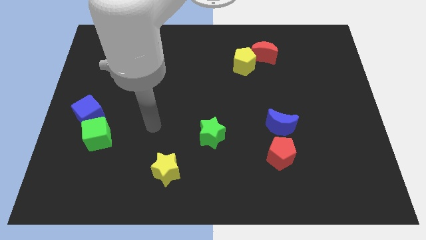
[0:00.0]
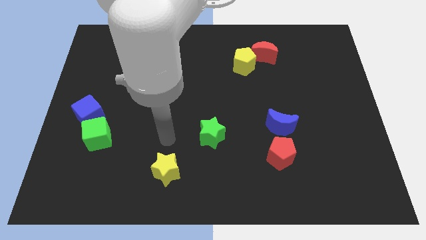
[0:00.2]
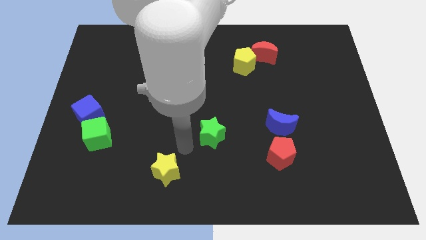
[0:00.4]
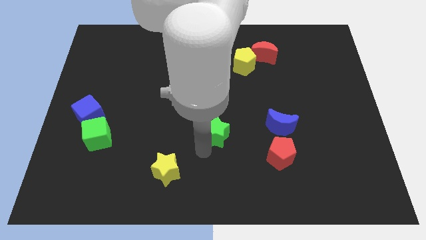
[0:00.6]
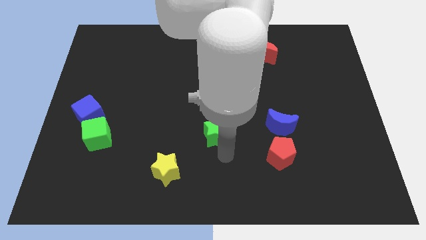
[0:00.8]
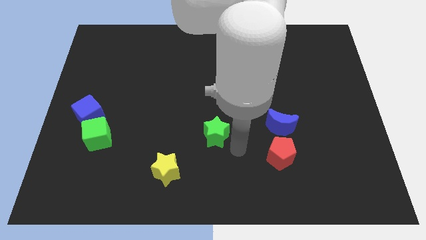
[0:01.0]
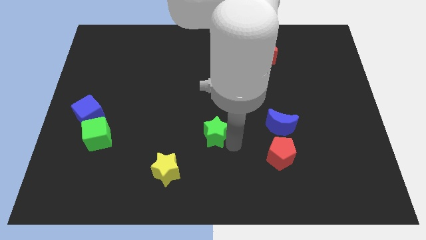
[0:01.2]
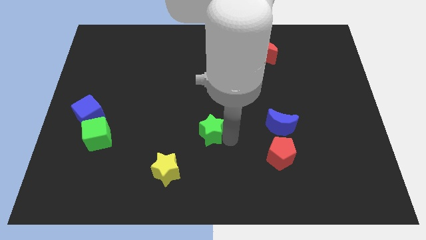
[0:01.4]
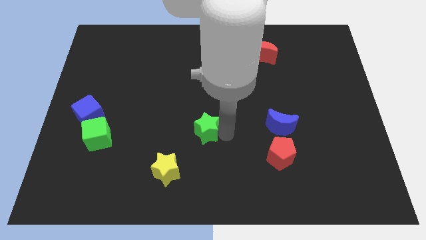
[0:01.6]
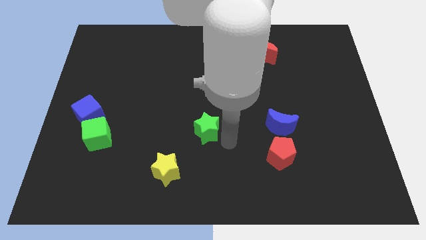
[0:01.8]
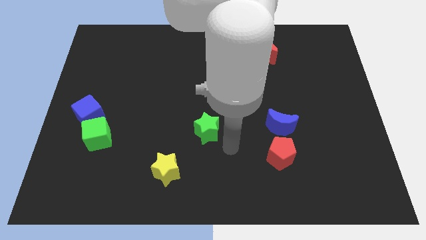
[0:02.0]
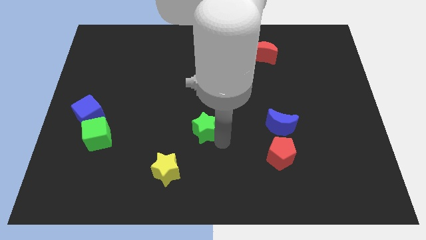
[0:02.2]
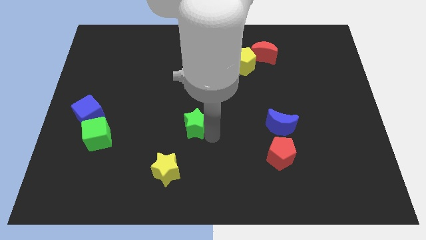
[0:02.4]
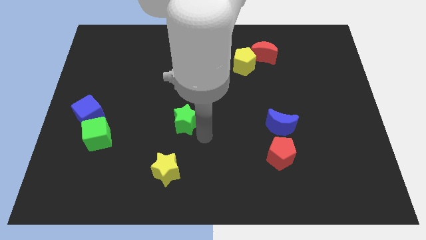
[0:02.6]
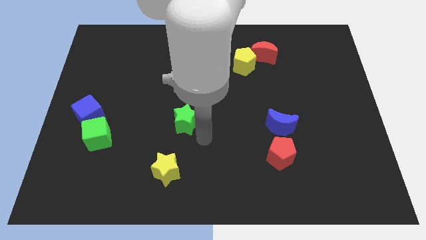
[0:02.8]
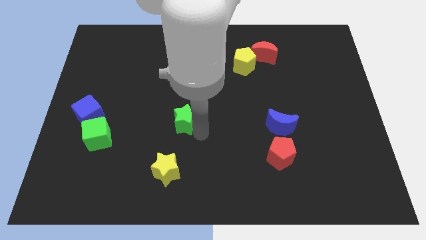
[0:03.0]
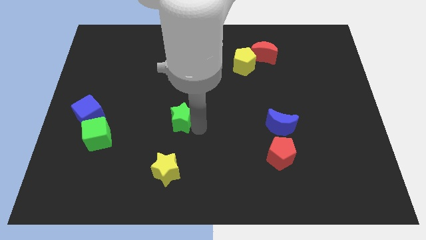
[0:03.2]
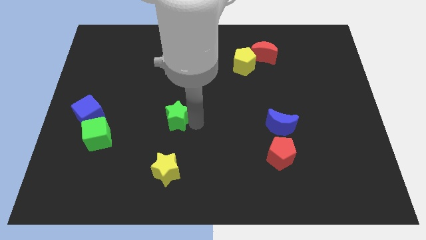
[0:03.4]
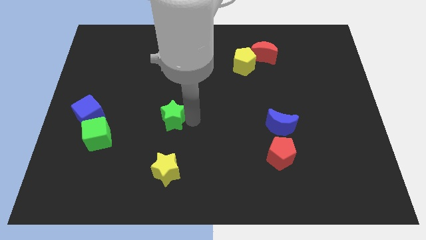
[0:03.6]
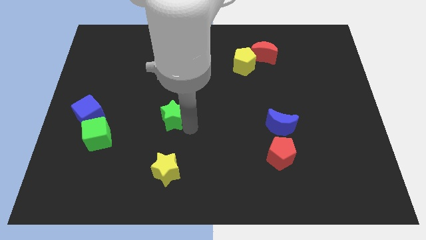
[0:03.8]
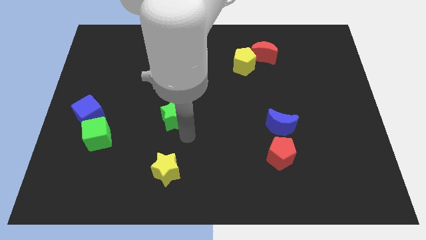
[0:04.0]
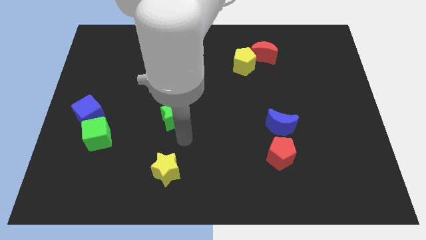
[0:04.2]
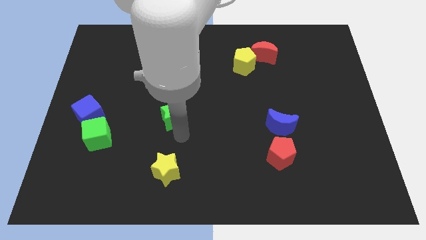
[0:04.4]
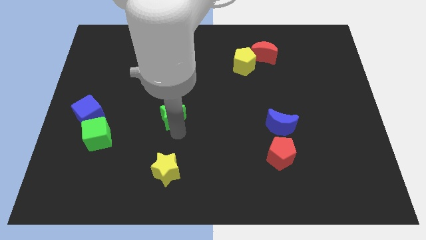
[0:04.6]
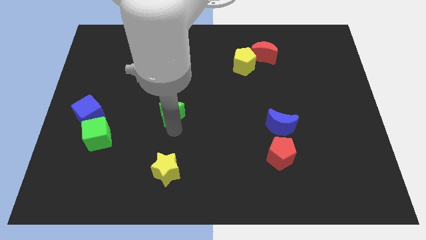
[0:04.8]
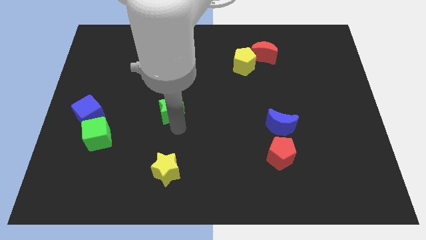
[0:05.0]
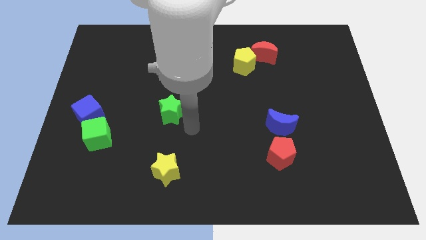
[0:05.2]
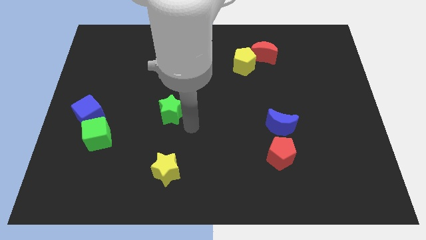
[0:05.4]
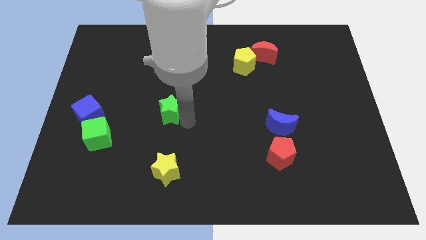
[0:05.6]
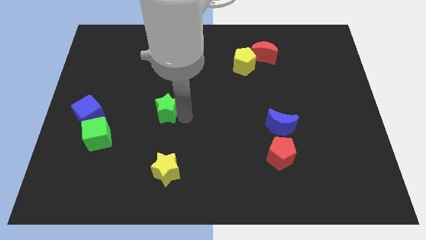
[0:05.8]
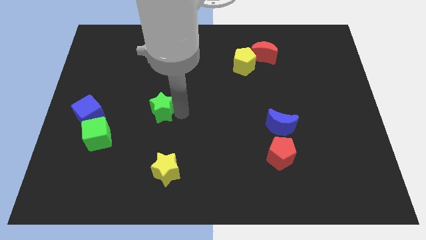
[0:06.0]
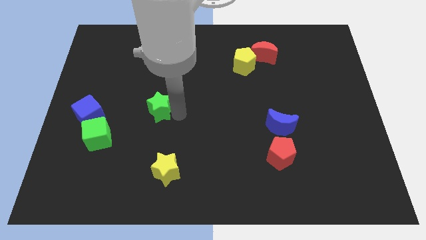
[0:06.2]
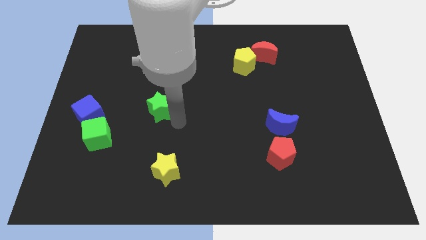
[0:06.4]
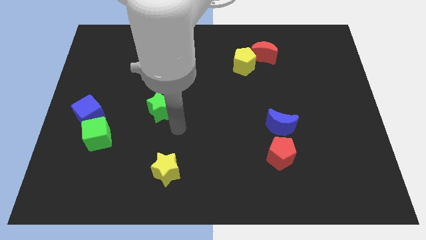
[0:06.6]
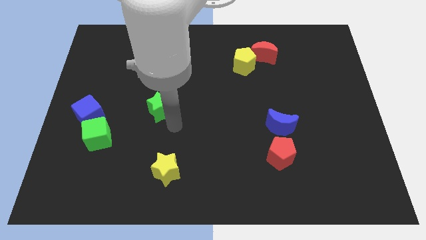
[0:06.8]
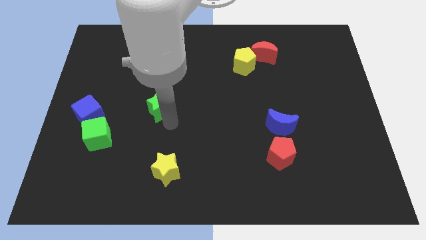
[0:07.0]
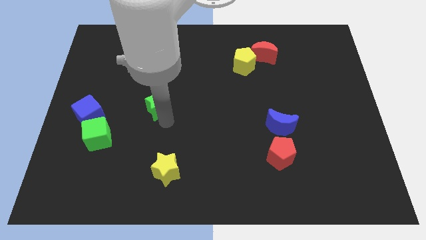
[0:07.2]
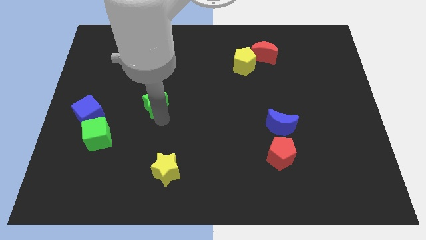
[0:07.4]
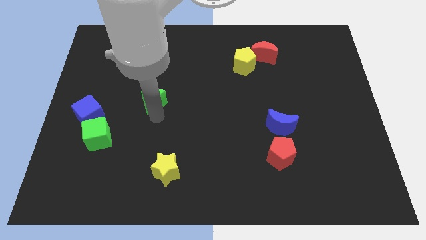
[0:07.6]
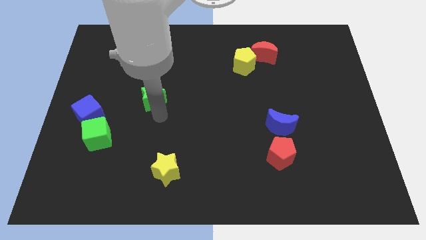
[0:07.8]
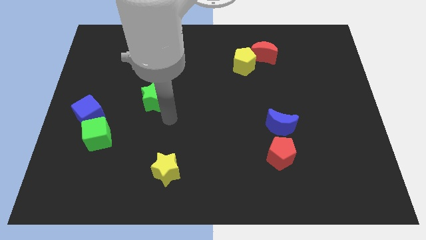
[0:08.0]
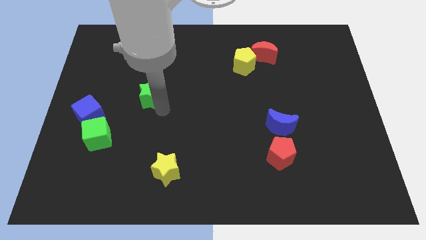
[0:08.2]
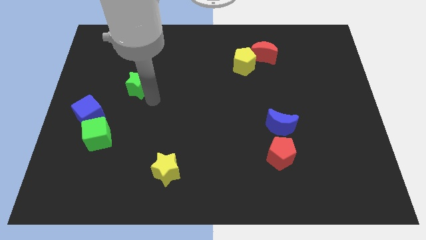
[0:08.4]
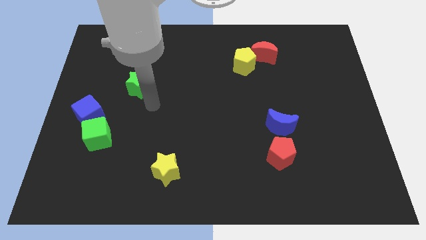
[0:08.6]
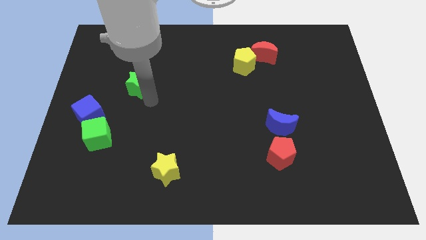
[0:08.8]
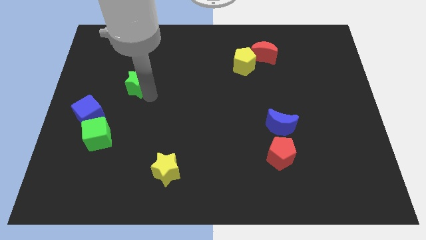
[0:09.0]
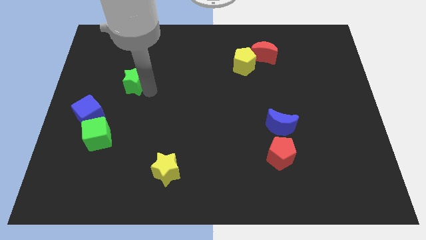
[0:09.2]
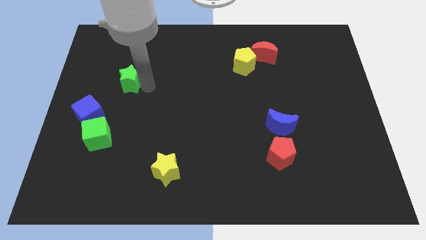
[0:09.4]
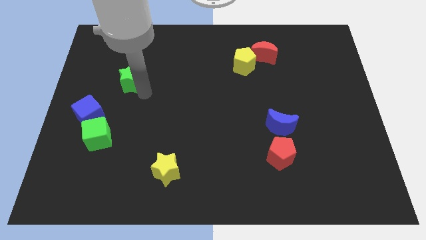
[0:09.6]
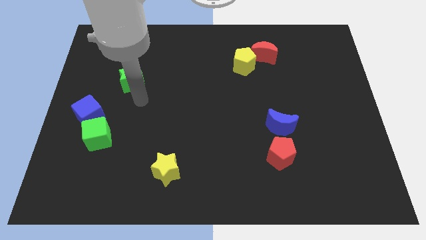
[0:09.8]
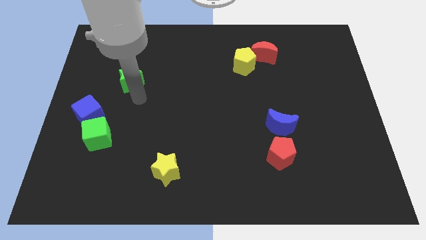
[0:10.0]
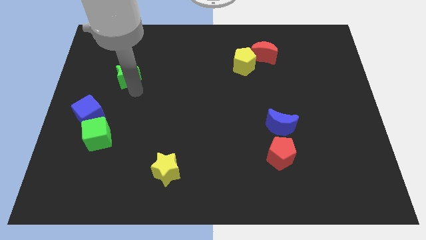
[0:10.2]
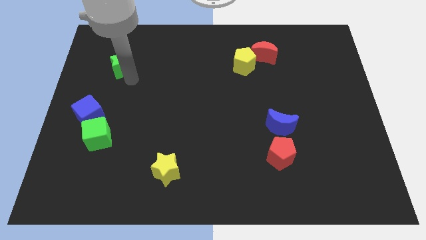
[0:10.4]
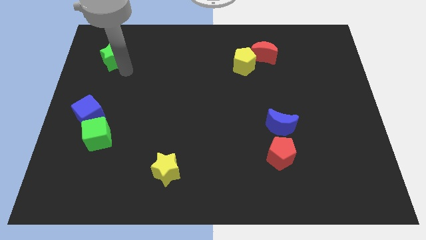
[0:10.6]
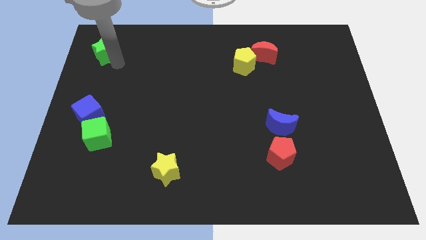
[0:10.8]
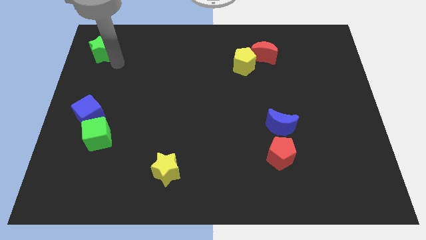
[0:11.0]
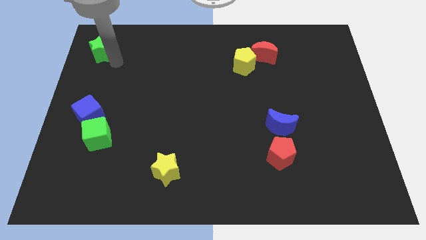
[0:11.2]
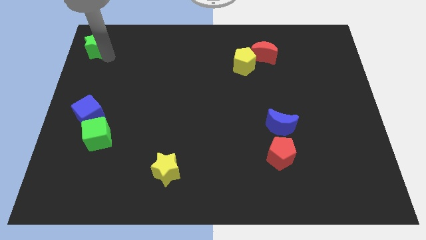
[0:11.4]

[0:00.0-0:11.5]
put the green star to the upper left corner
